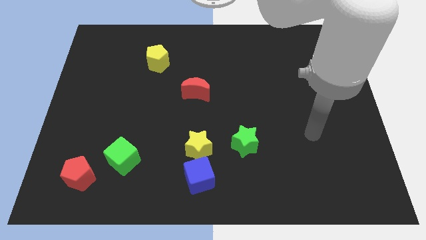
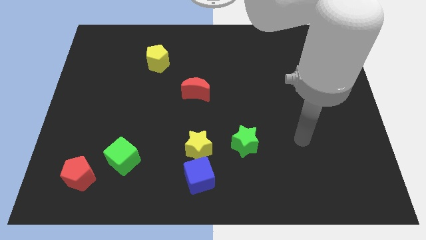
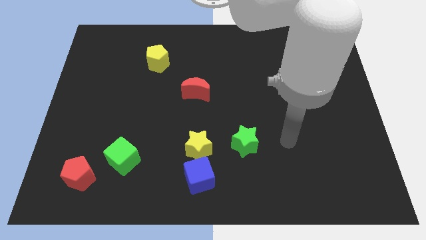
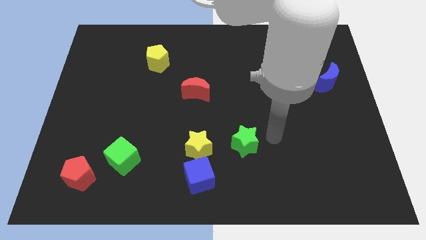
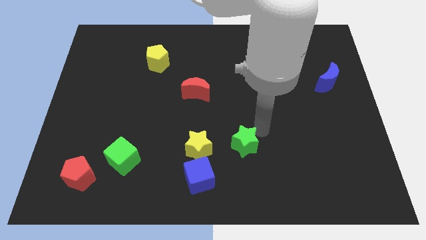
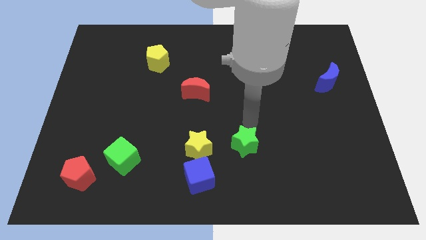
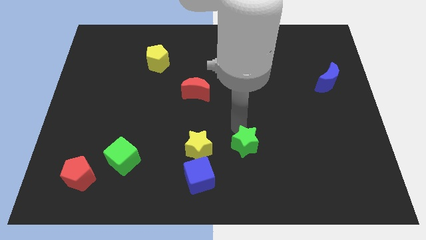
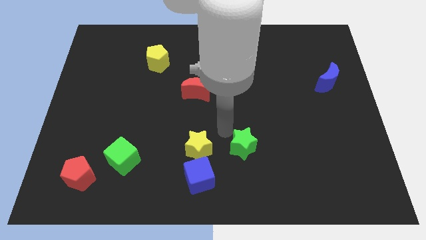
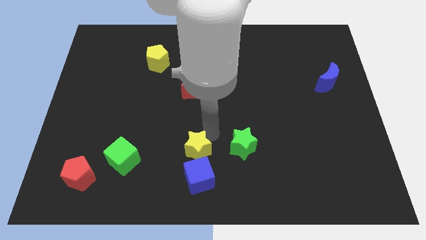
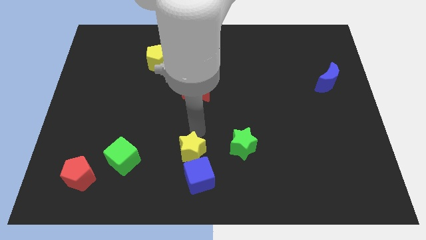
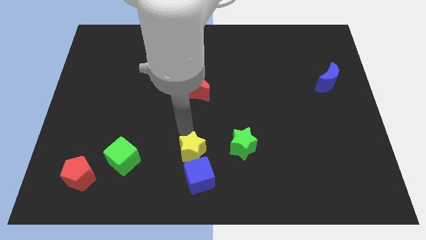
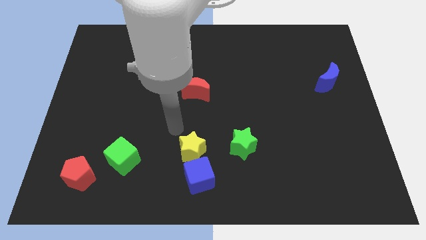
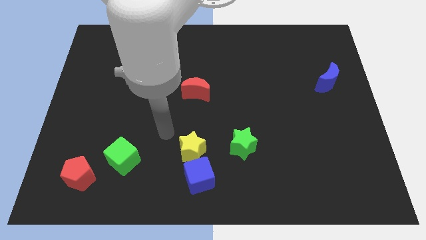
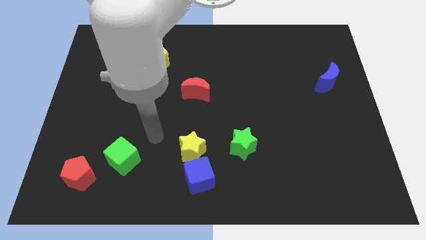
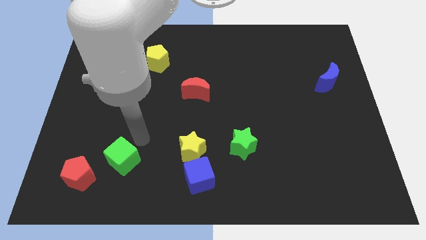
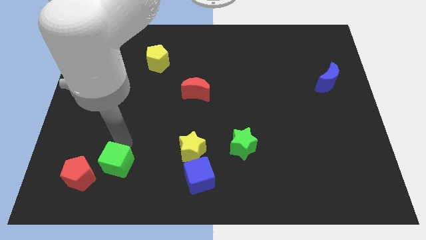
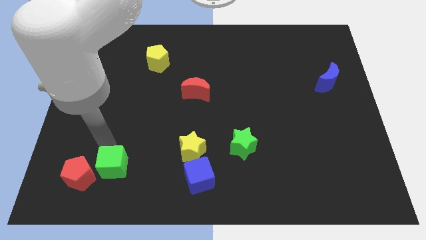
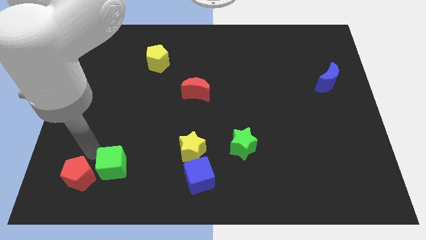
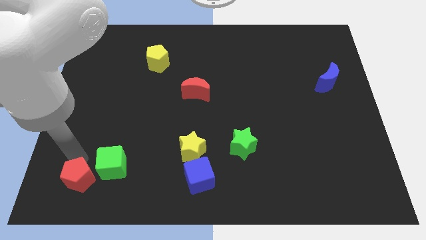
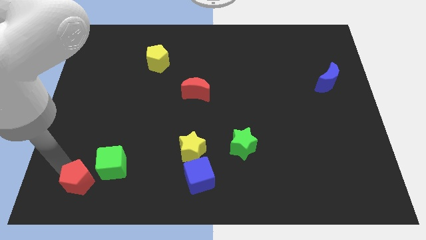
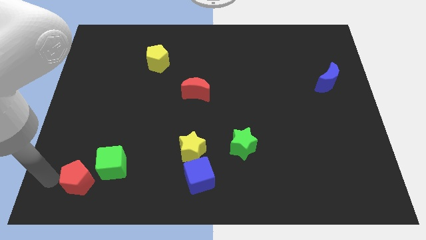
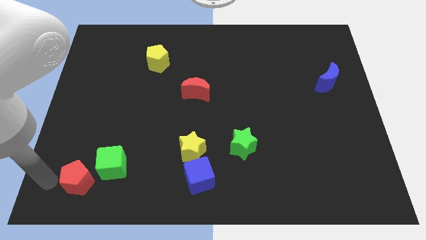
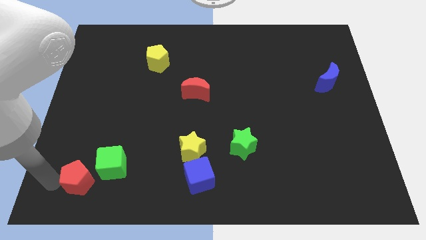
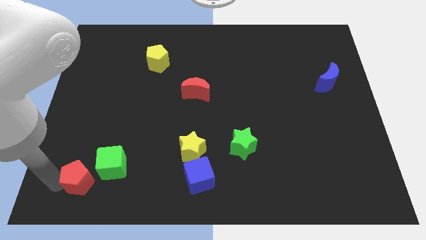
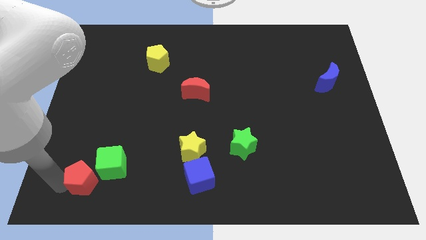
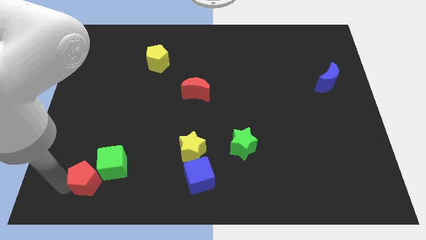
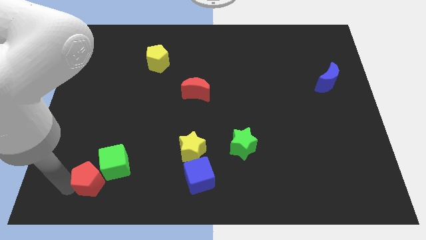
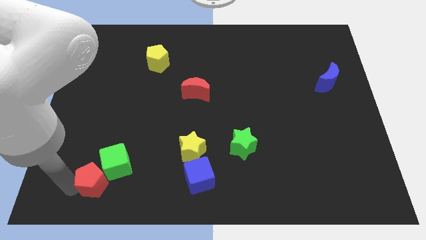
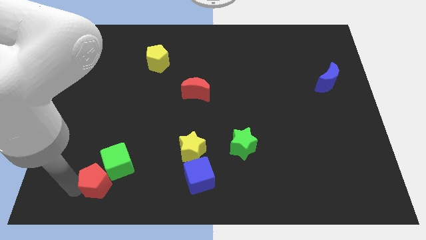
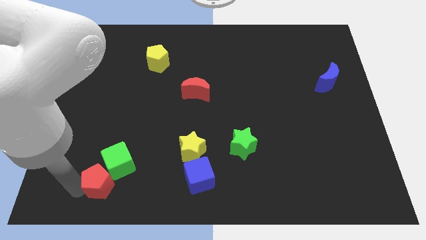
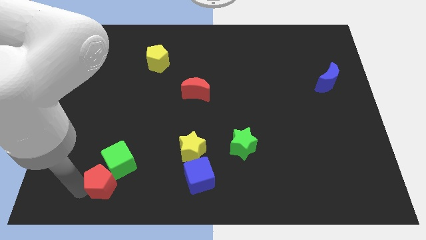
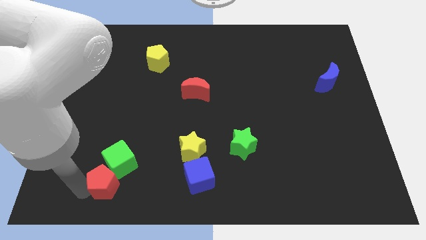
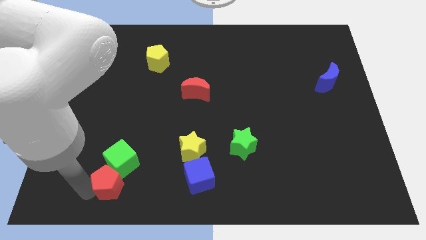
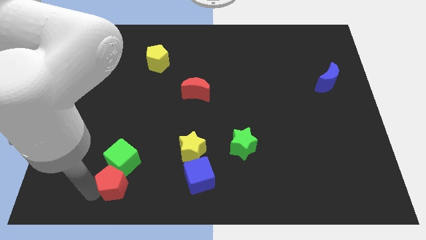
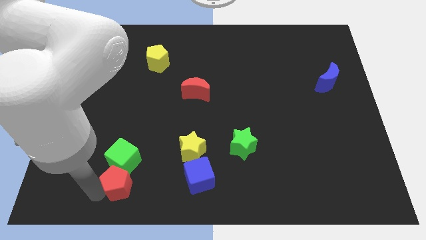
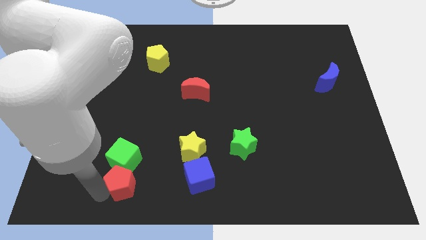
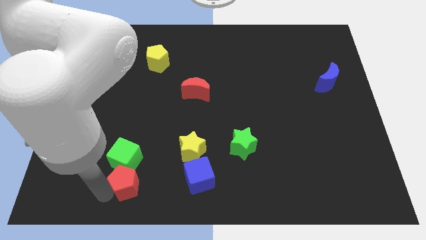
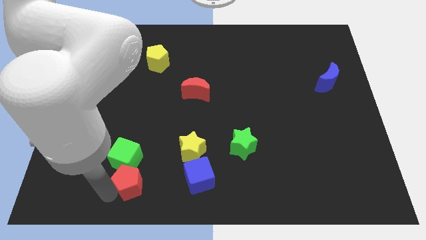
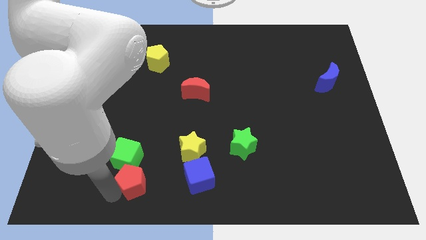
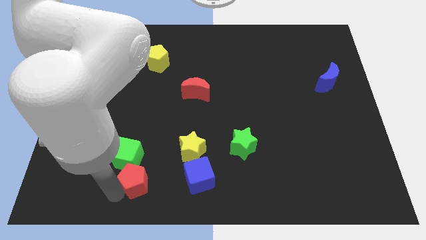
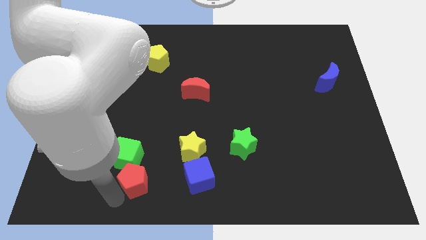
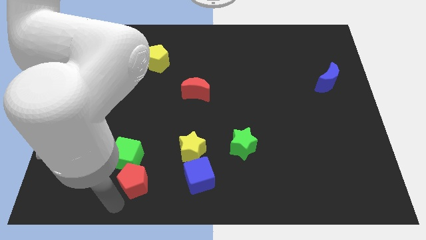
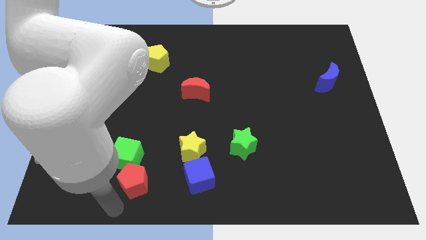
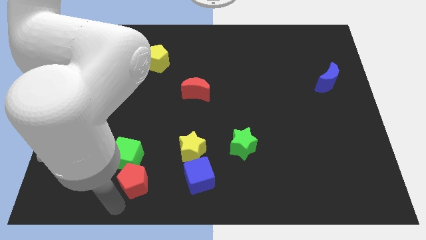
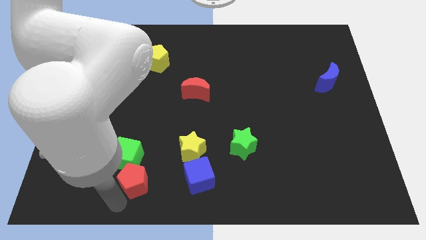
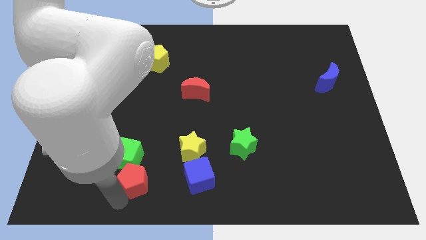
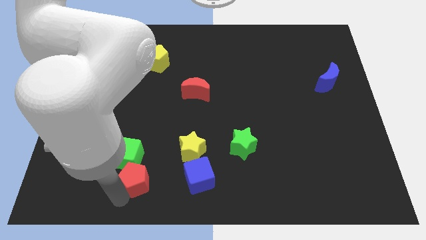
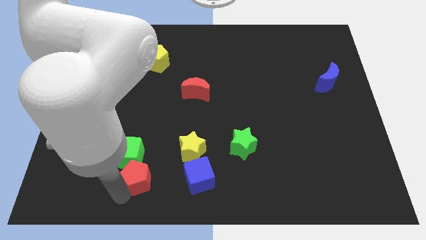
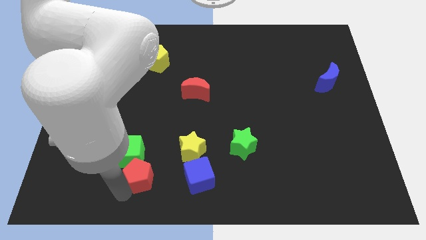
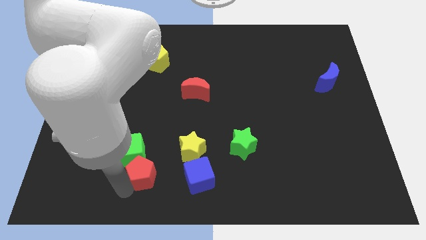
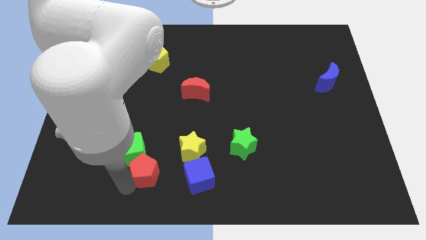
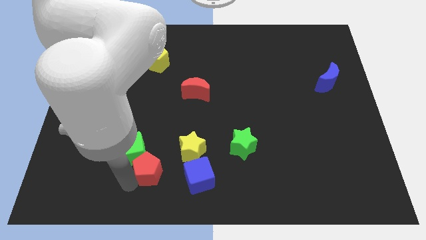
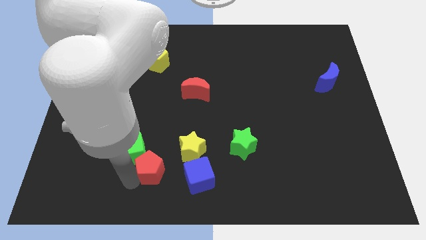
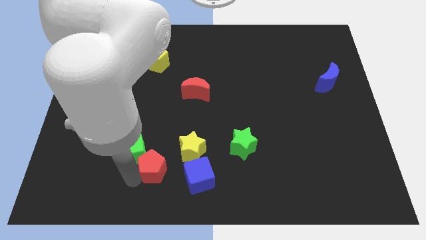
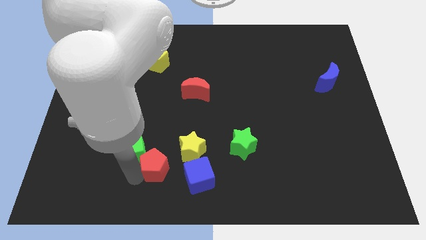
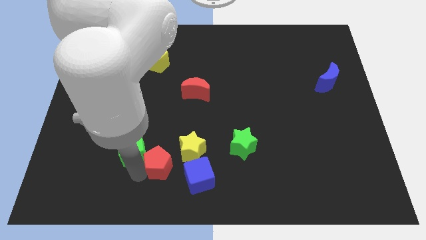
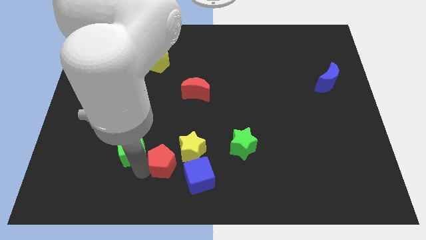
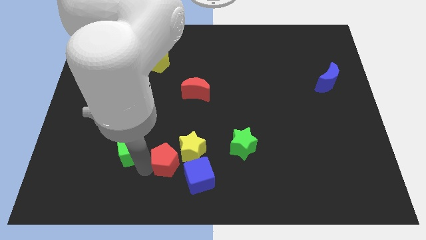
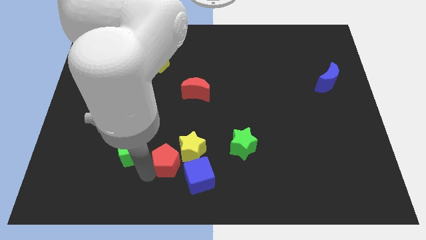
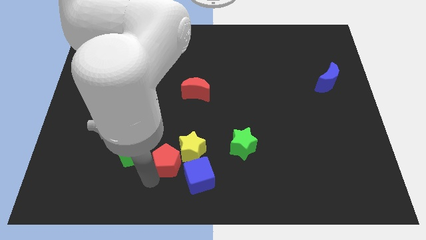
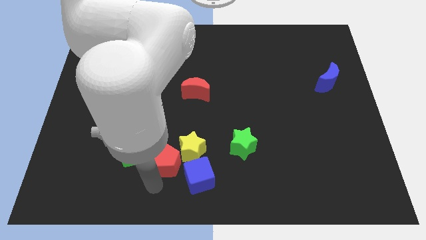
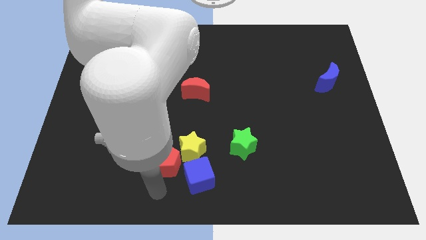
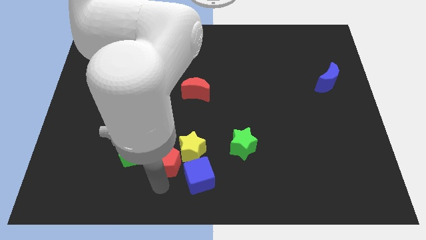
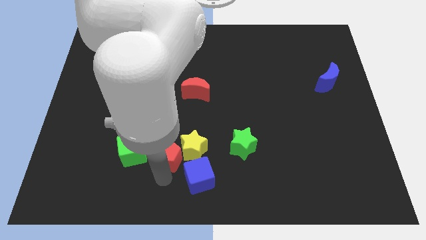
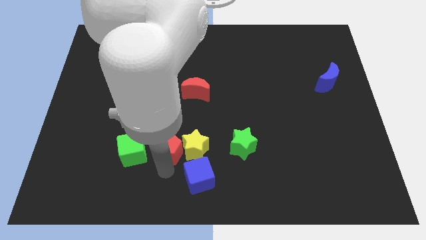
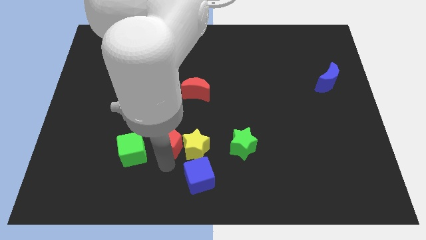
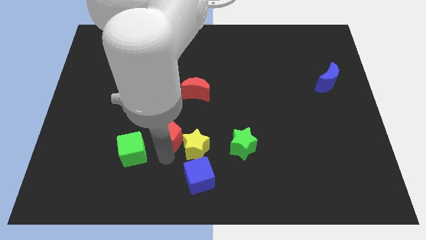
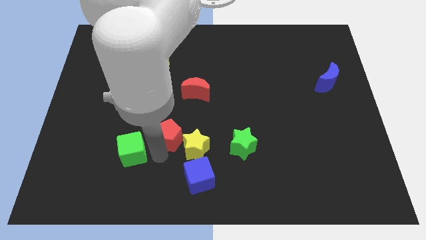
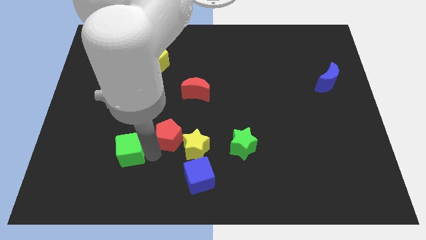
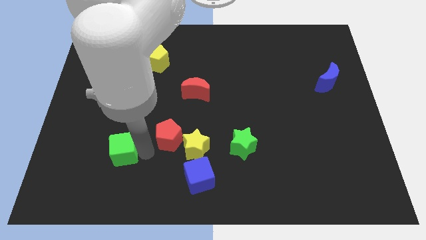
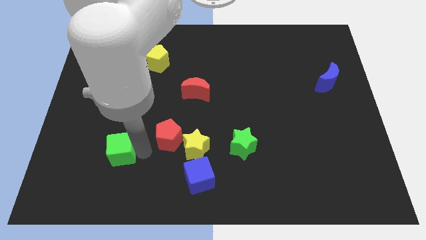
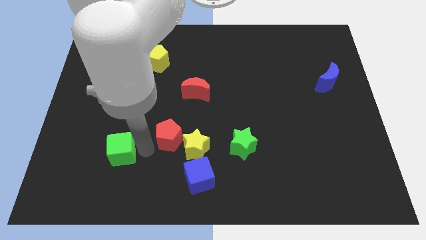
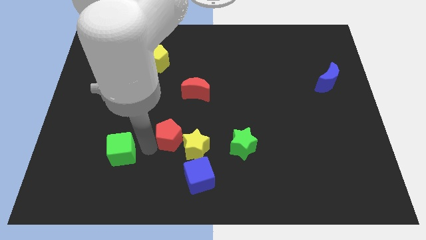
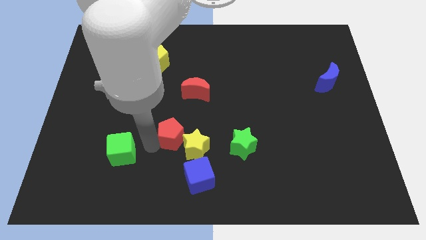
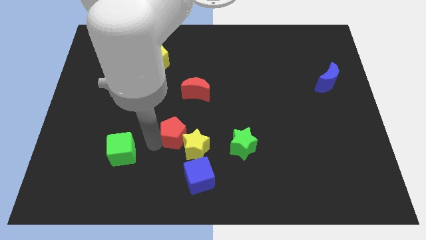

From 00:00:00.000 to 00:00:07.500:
put the red pentagon to the bottom side of the red moon

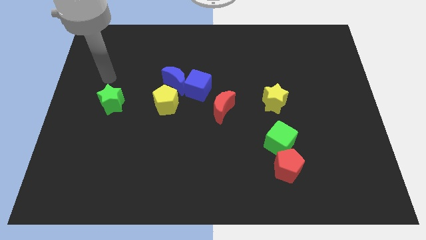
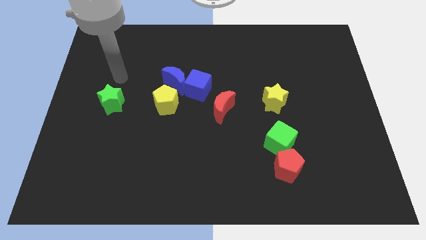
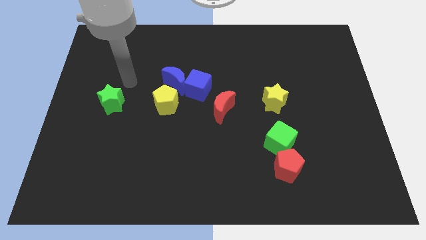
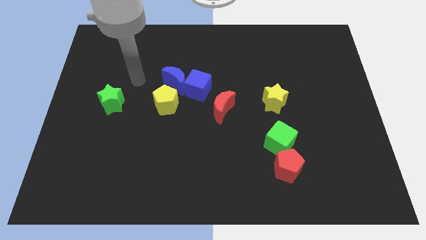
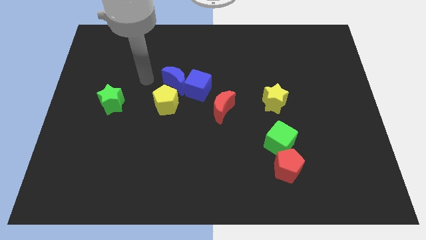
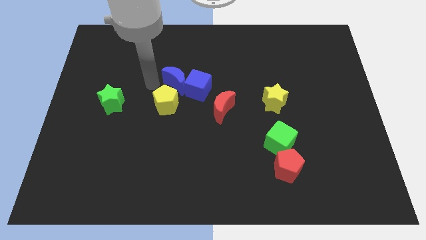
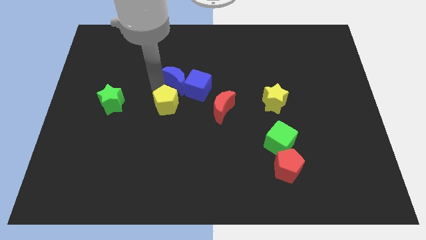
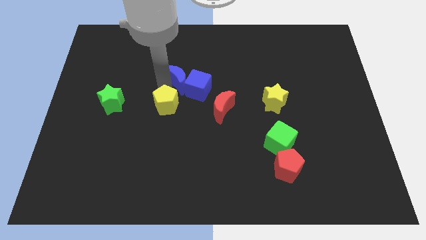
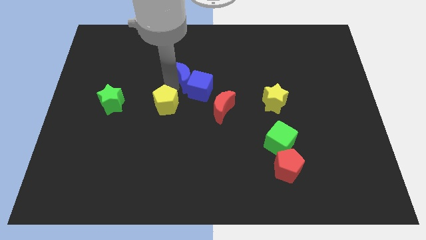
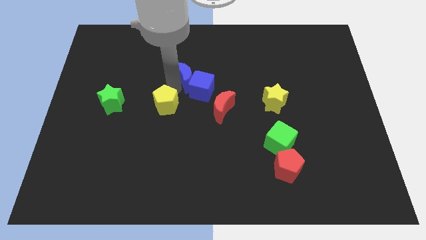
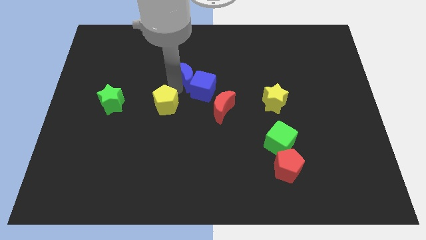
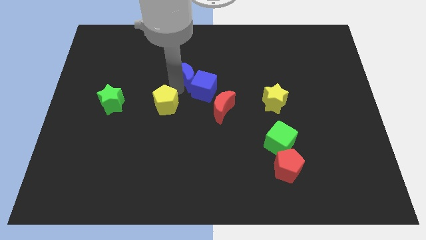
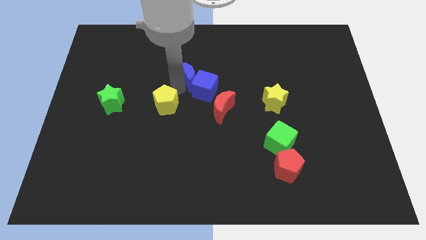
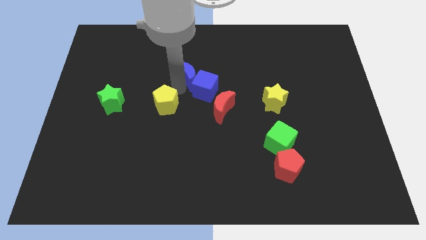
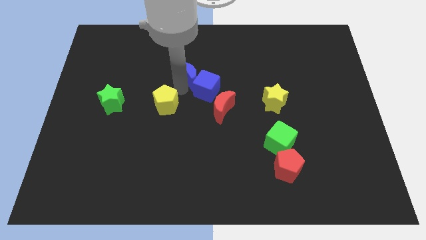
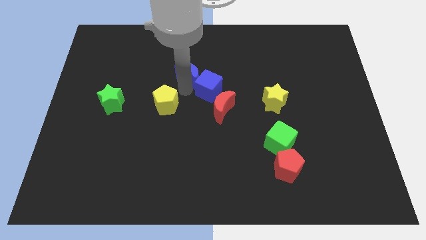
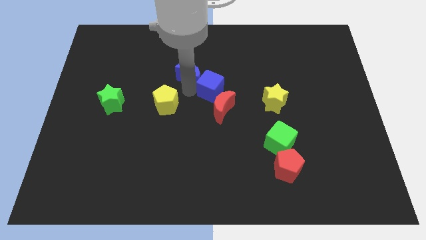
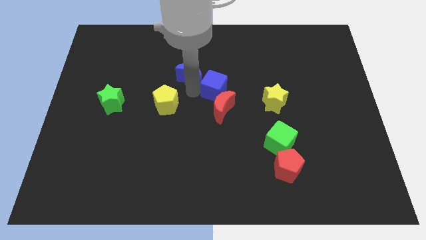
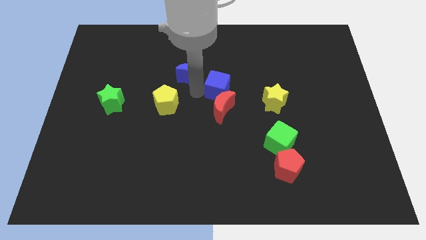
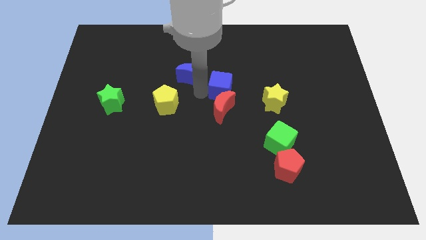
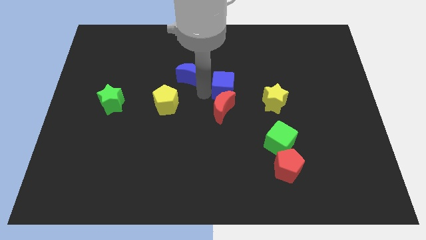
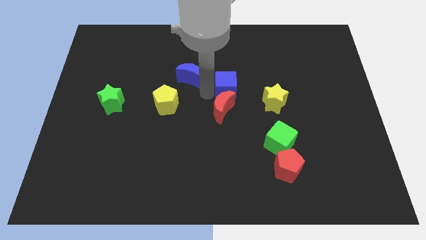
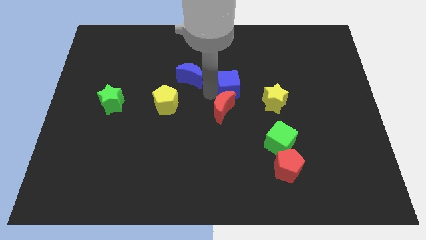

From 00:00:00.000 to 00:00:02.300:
push the blue cube diagonally up and to the left of the yellow star
